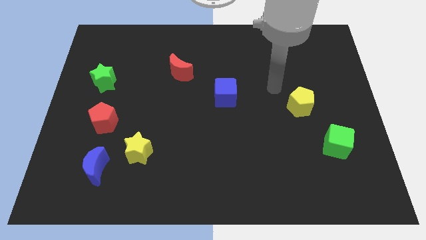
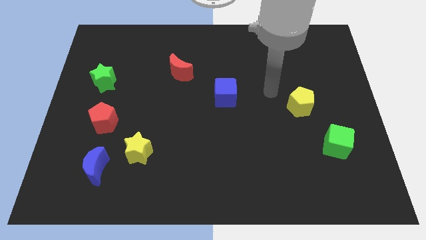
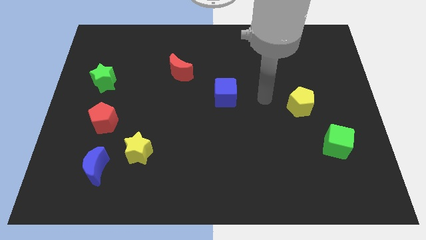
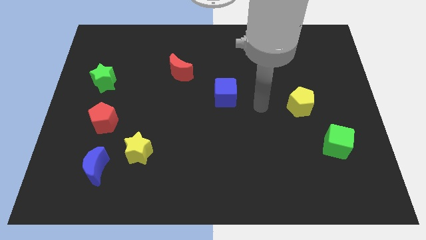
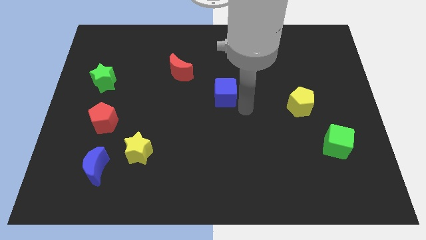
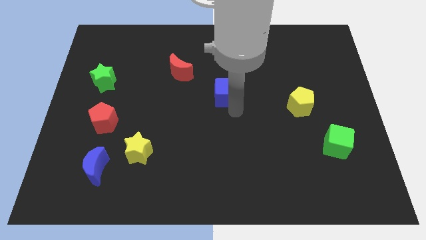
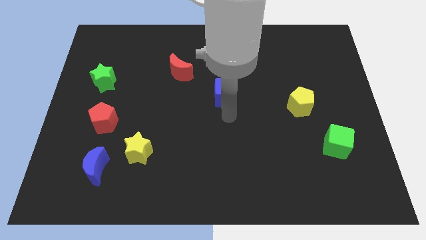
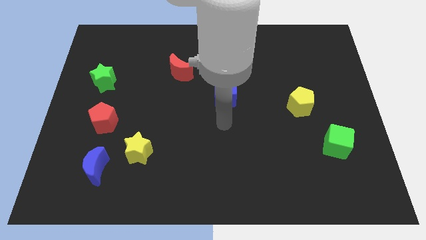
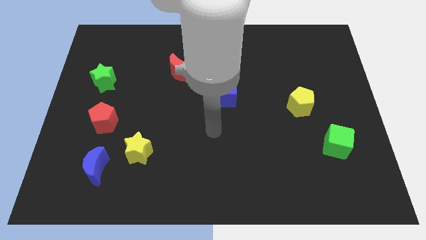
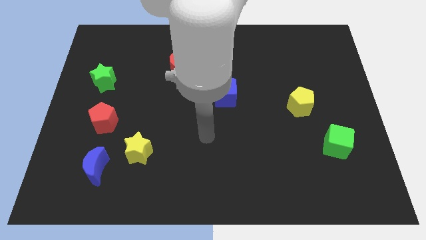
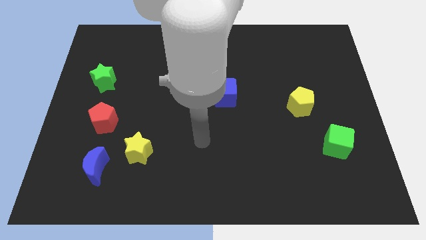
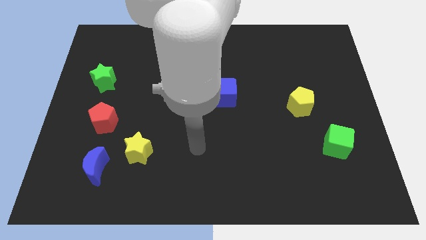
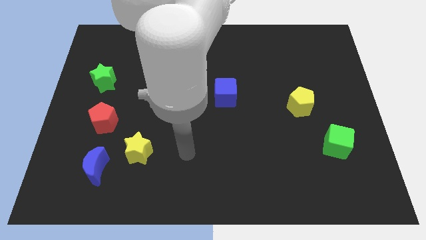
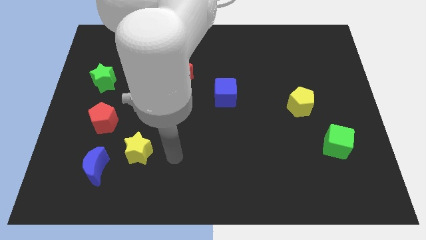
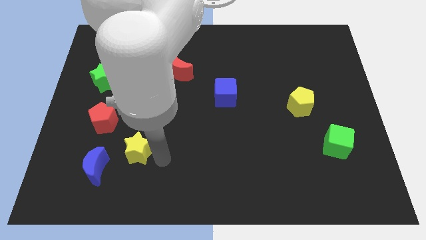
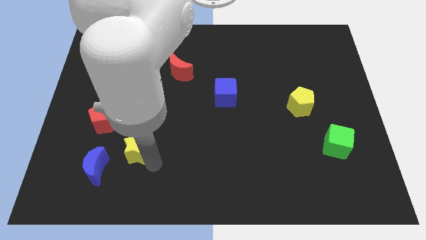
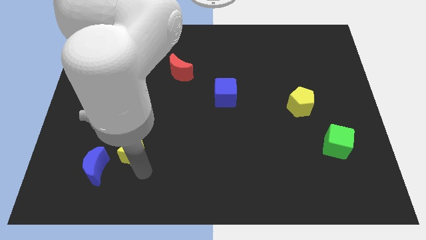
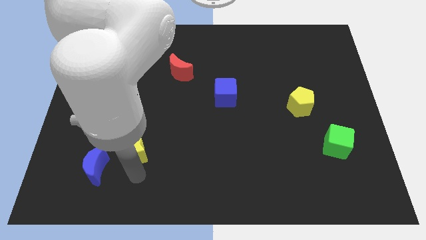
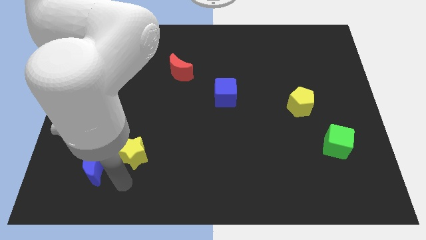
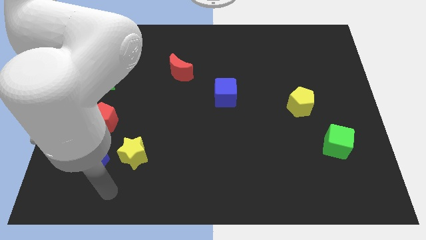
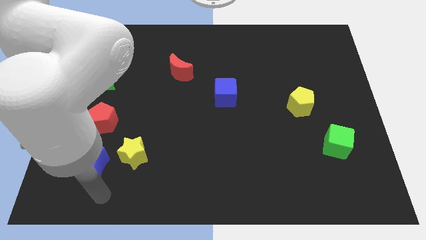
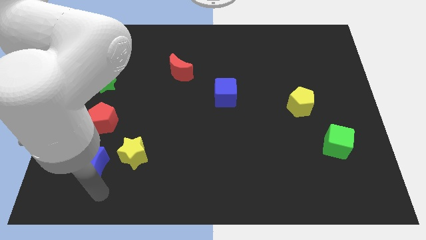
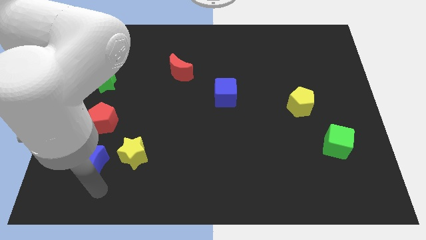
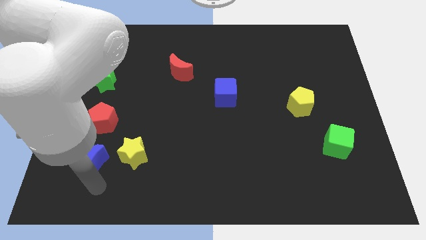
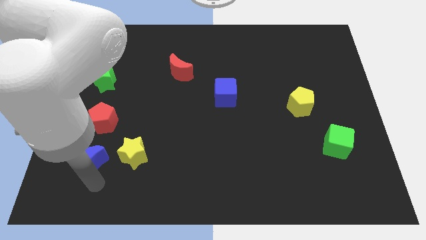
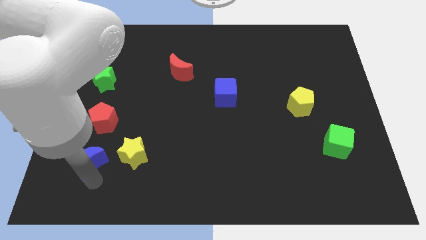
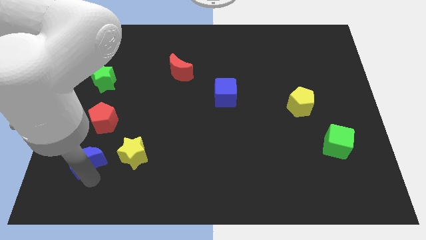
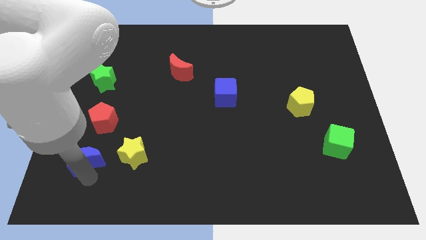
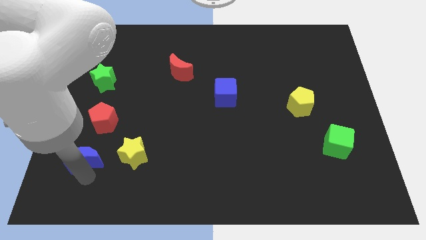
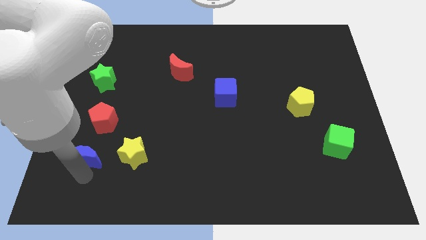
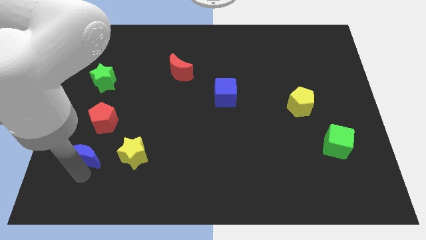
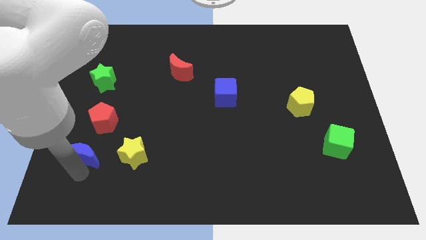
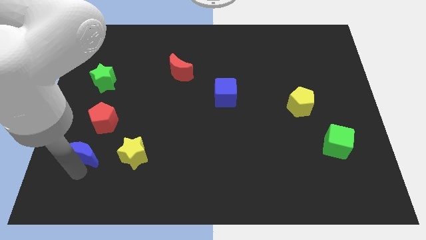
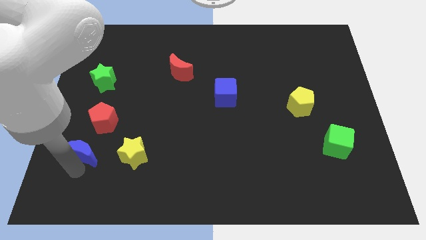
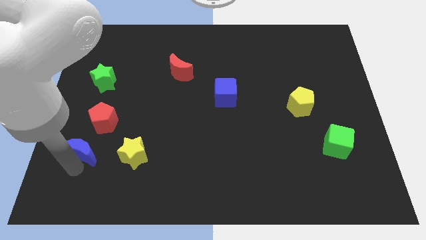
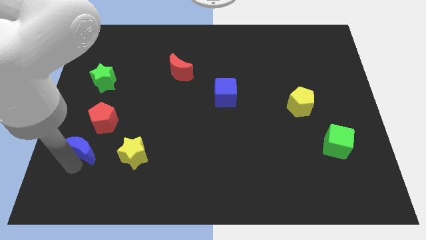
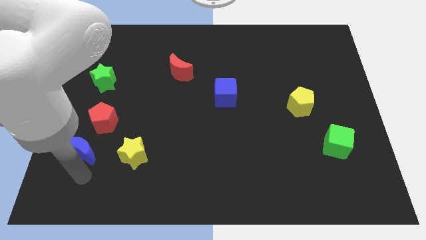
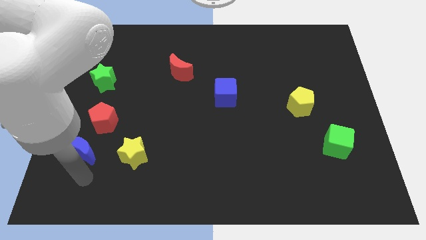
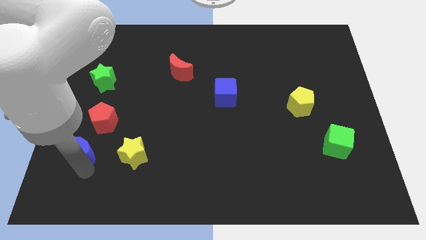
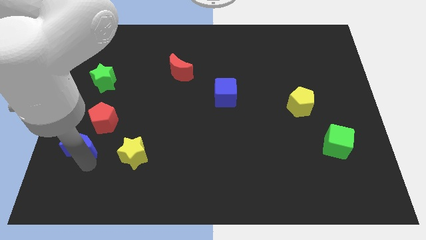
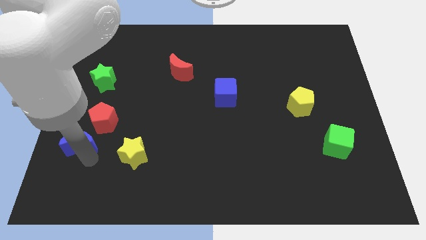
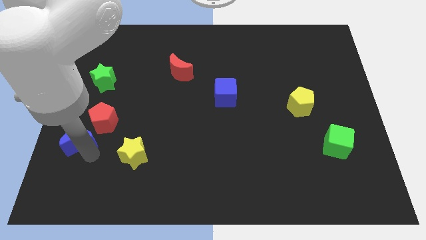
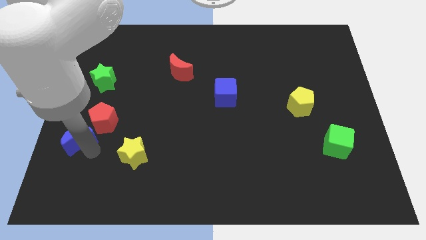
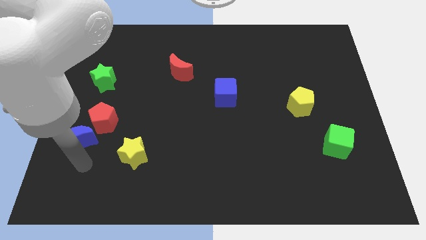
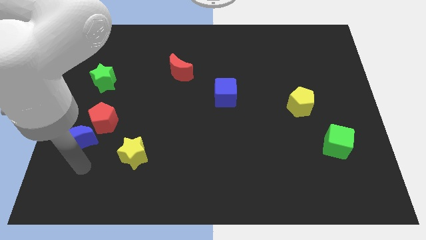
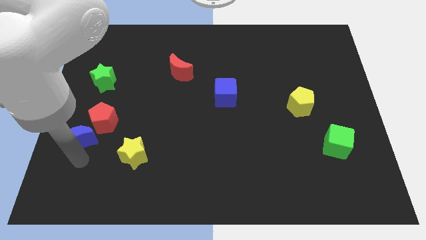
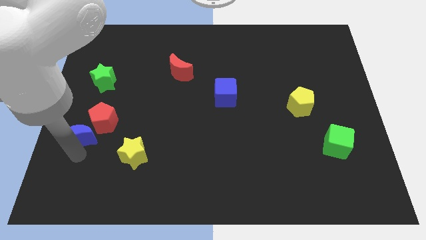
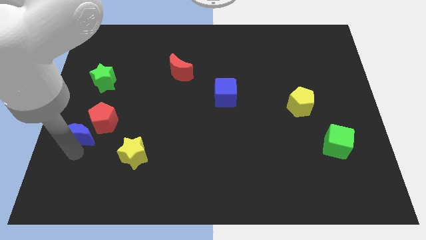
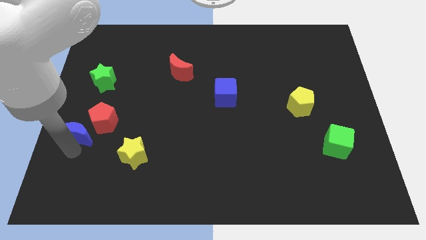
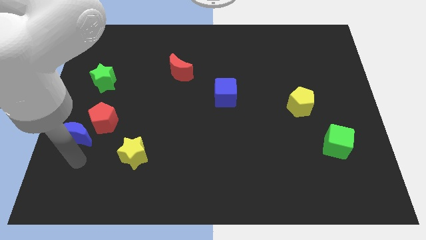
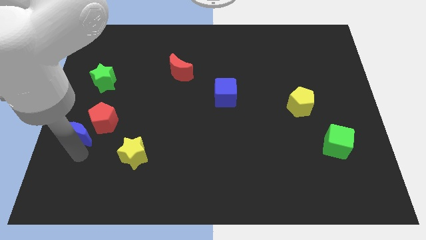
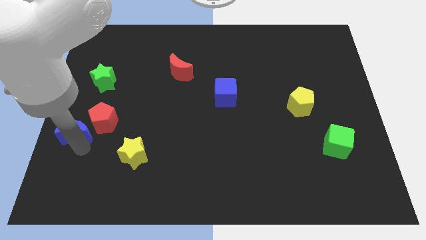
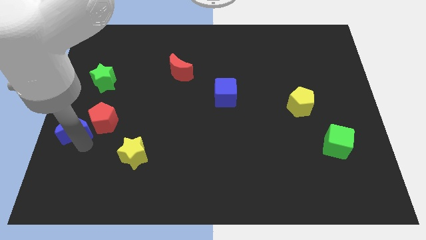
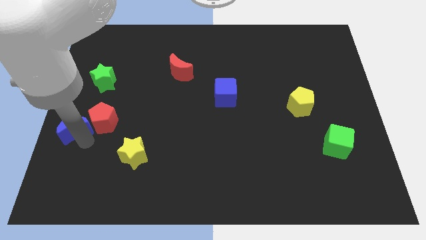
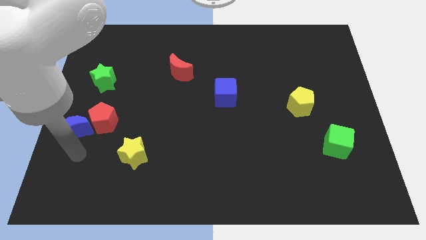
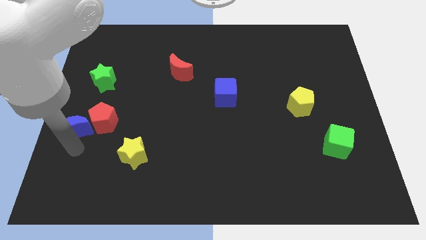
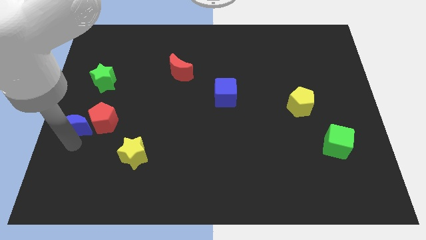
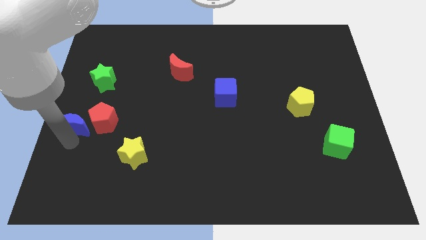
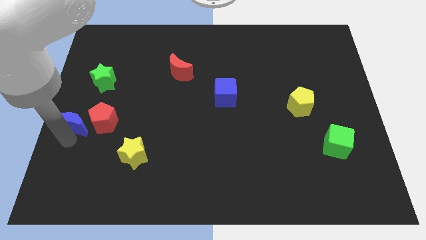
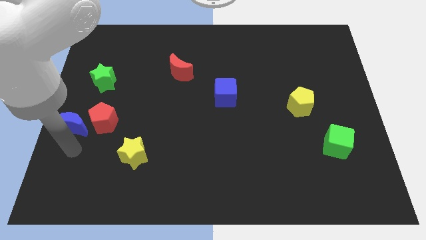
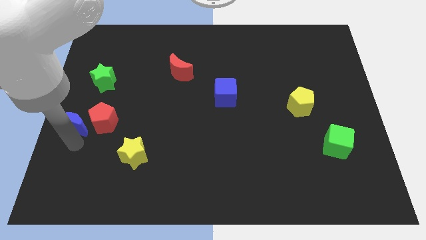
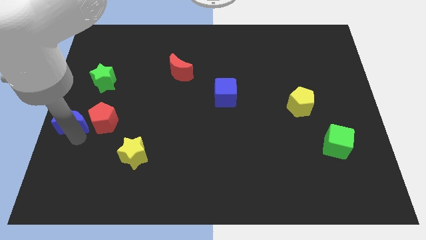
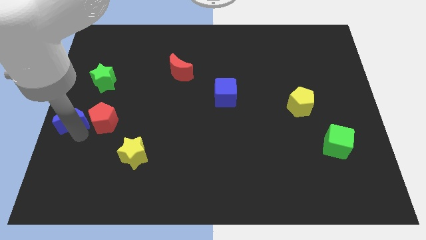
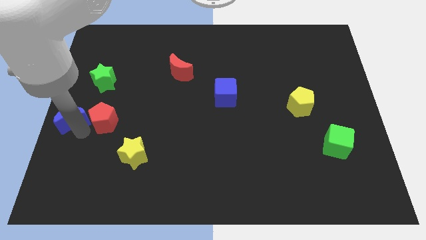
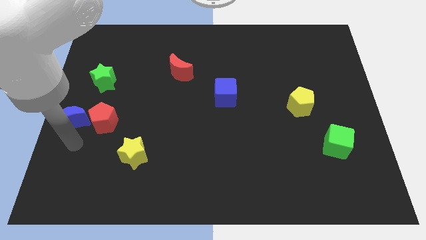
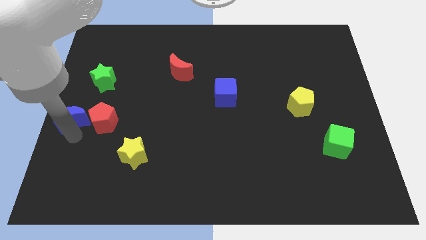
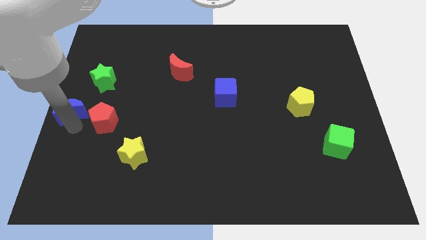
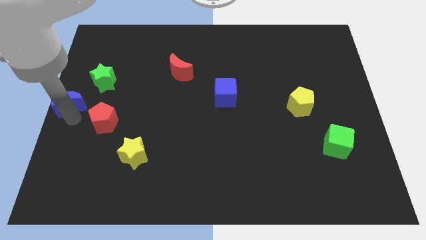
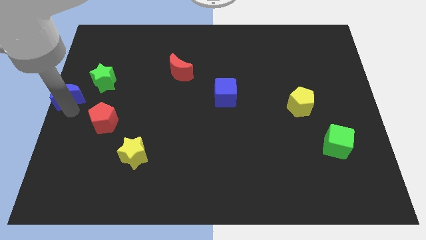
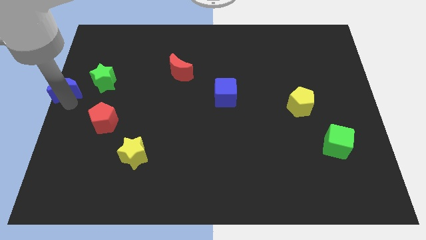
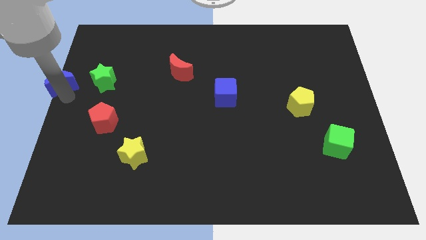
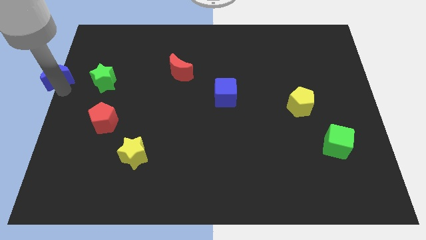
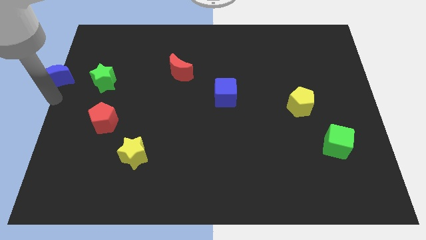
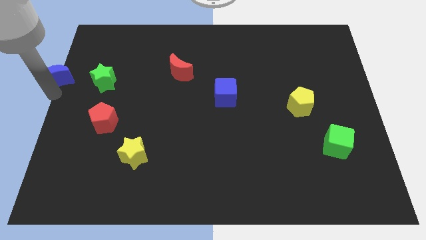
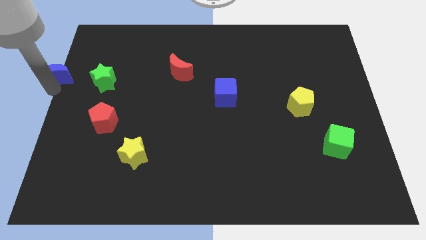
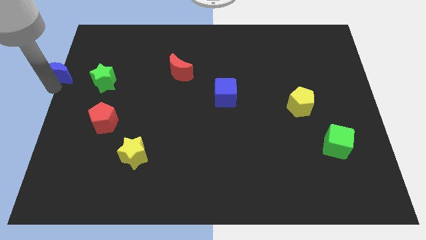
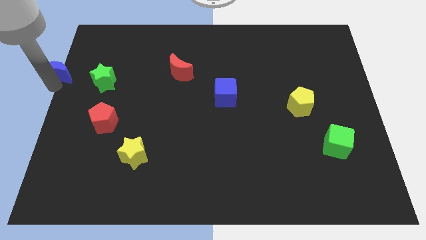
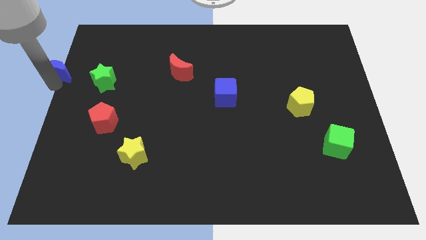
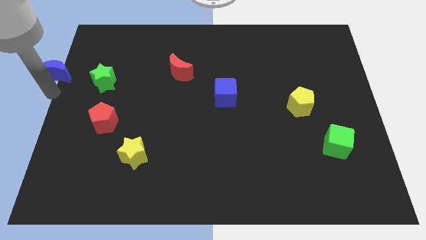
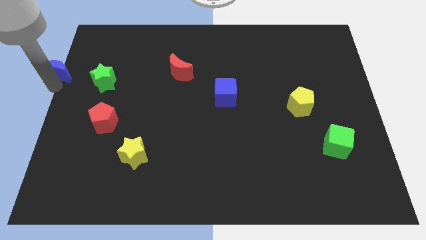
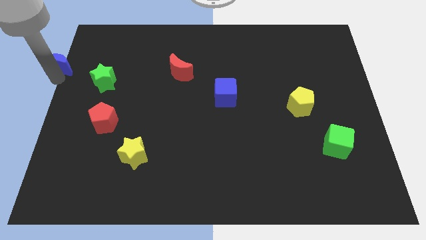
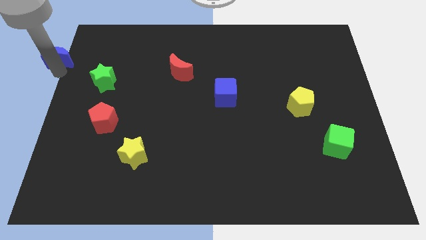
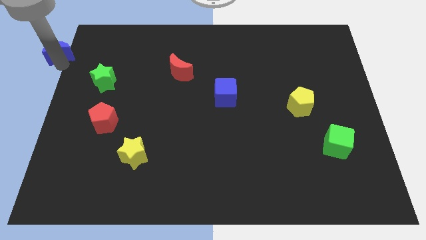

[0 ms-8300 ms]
push the blue moon to the top left
